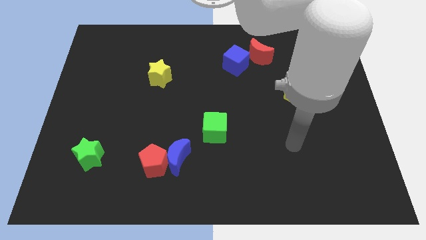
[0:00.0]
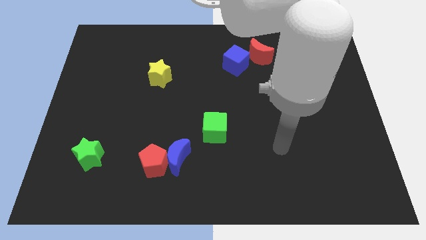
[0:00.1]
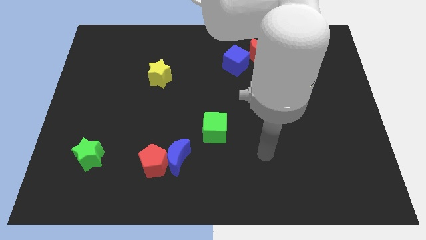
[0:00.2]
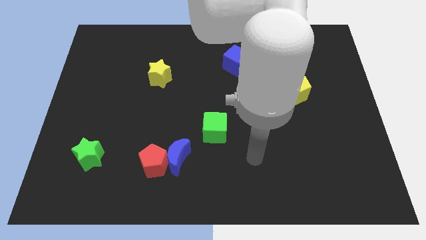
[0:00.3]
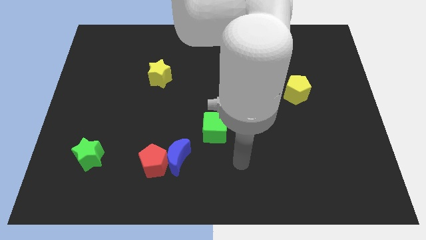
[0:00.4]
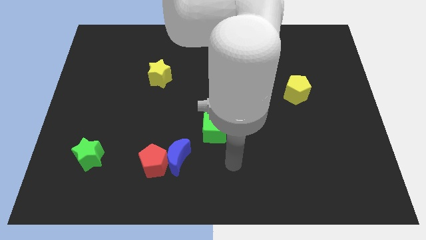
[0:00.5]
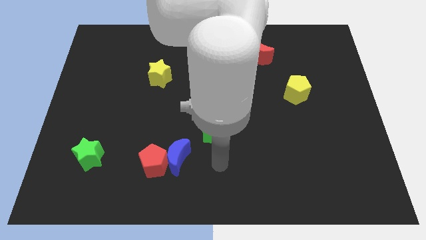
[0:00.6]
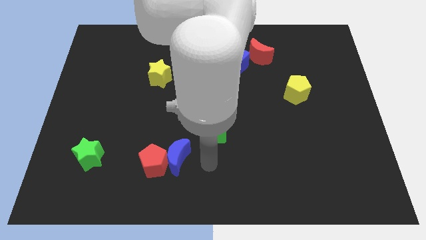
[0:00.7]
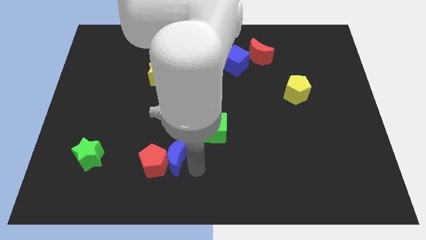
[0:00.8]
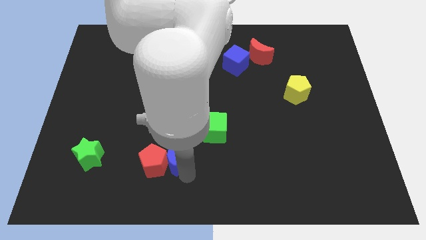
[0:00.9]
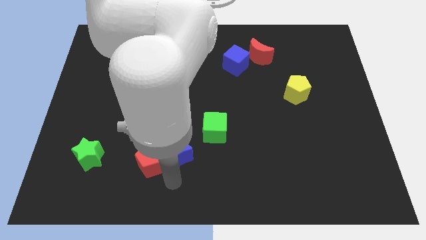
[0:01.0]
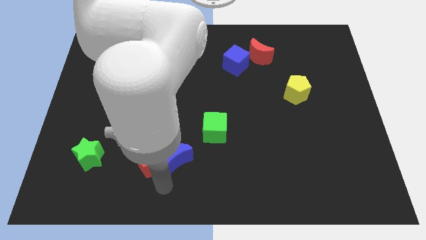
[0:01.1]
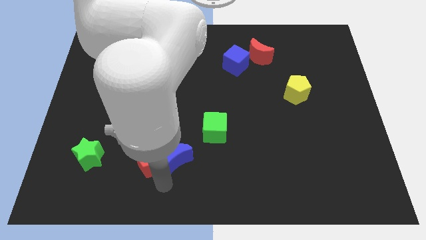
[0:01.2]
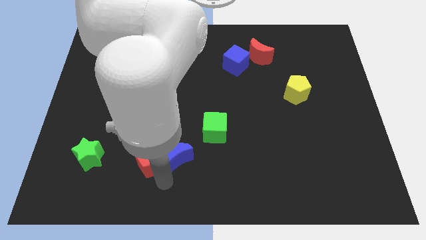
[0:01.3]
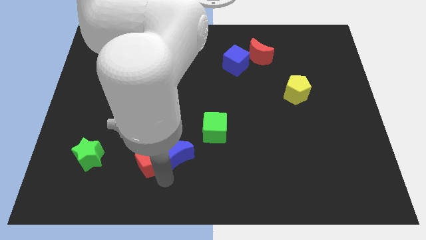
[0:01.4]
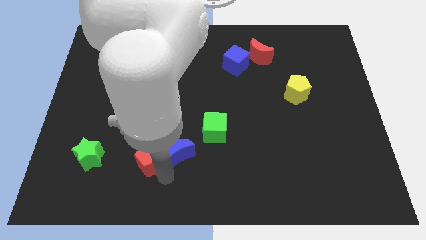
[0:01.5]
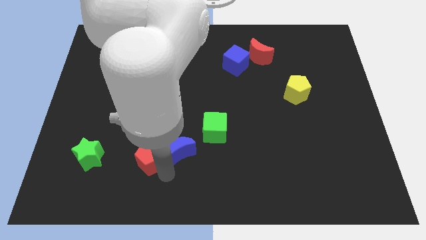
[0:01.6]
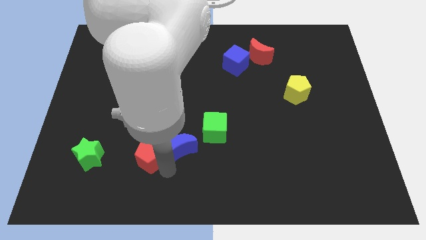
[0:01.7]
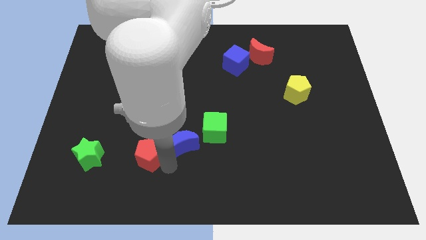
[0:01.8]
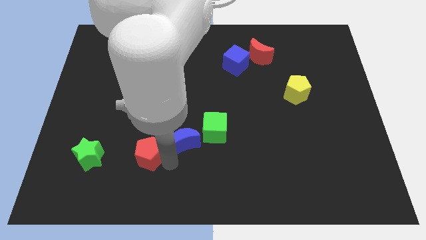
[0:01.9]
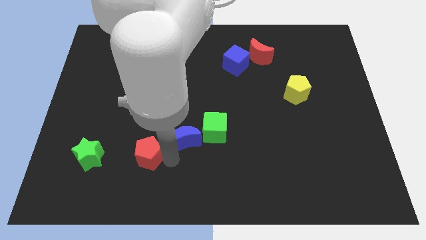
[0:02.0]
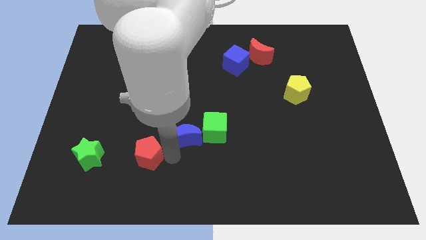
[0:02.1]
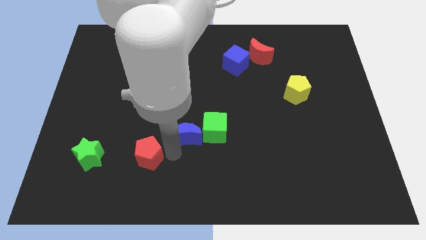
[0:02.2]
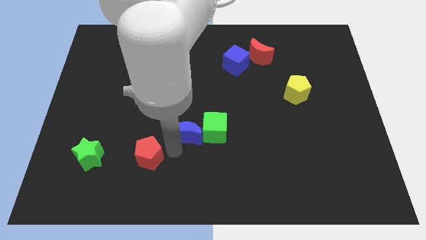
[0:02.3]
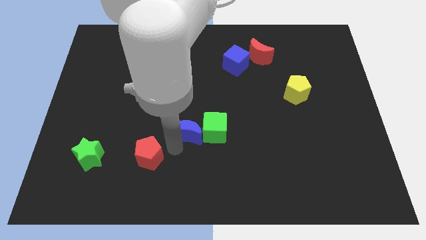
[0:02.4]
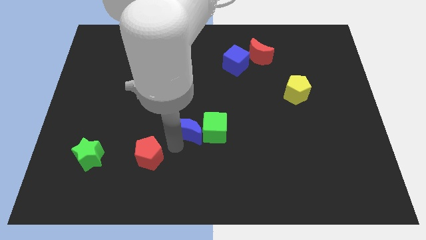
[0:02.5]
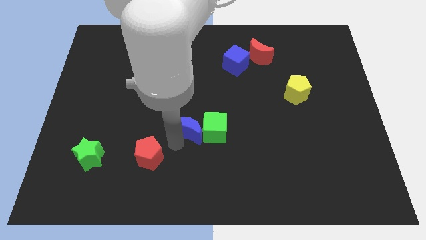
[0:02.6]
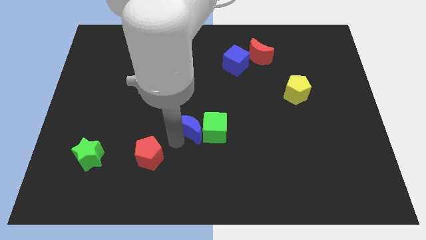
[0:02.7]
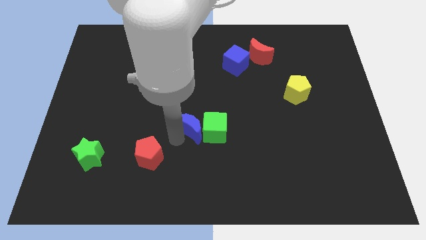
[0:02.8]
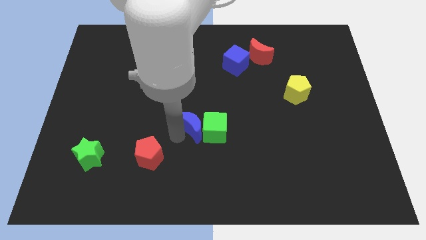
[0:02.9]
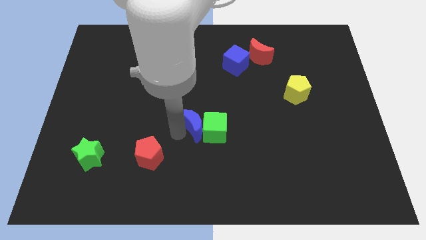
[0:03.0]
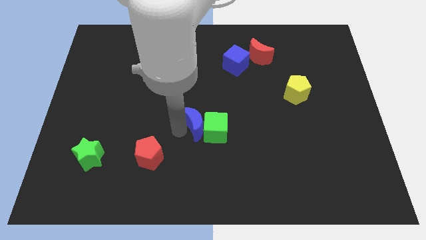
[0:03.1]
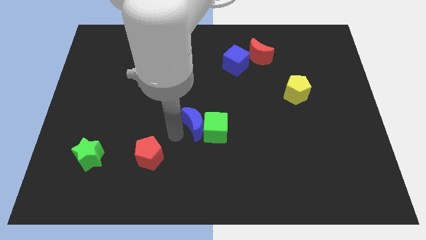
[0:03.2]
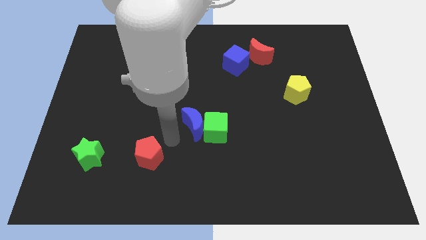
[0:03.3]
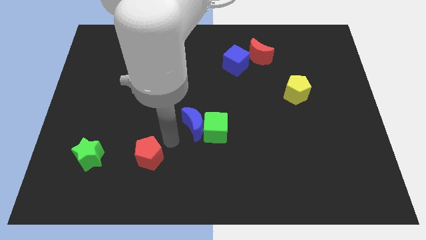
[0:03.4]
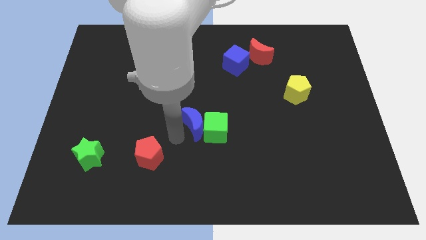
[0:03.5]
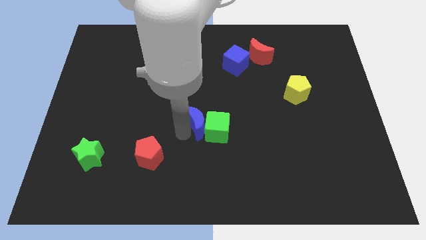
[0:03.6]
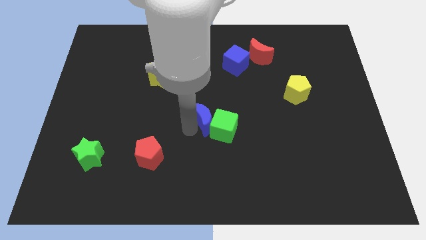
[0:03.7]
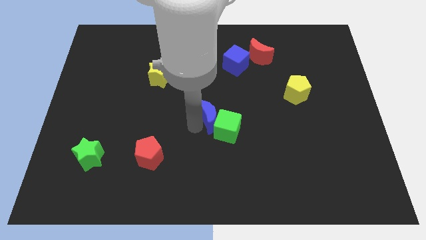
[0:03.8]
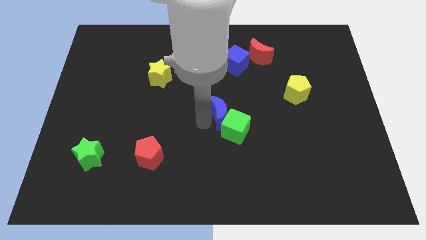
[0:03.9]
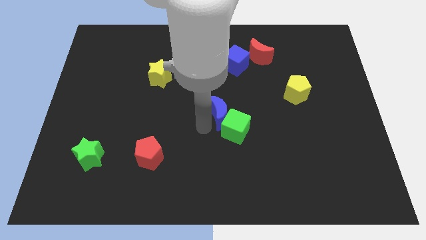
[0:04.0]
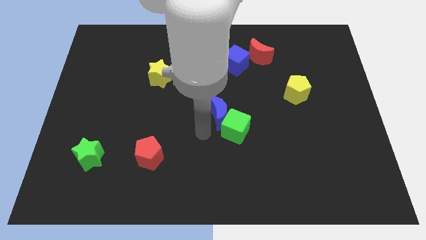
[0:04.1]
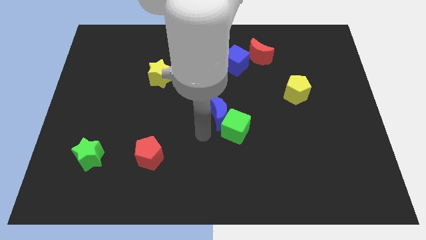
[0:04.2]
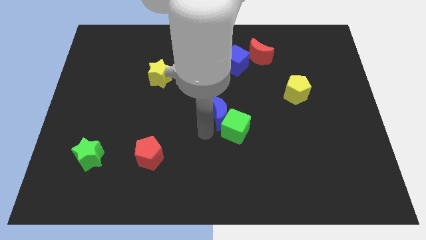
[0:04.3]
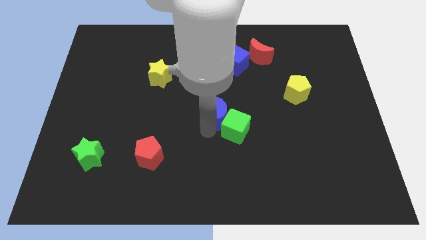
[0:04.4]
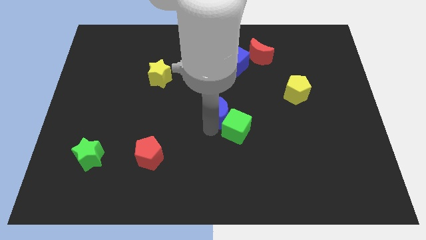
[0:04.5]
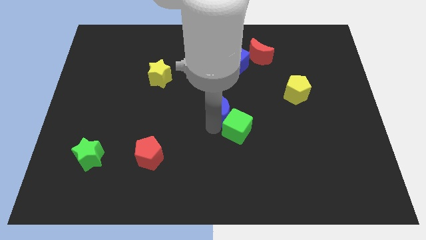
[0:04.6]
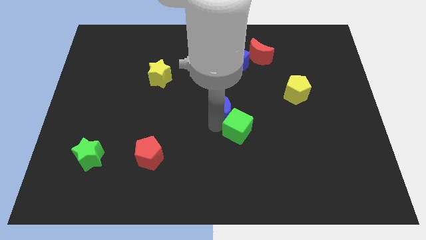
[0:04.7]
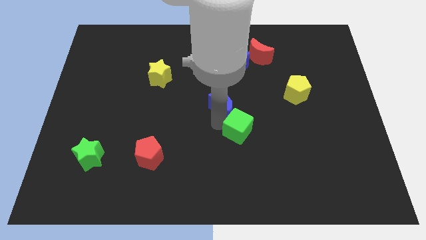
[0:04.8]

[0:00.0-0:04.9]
slide the blue moon below the blue cube

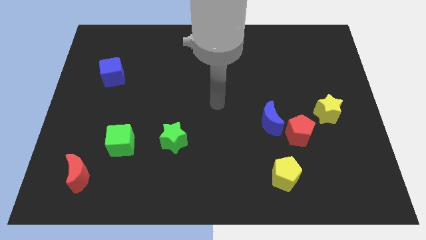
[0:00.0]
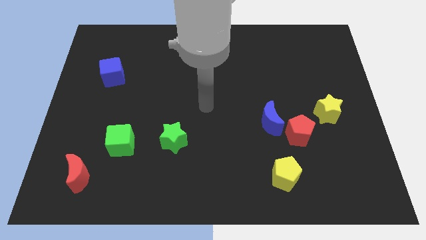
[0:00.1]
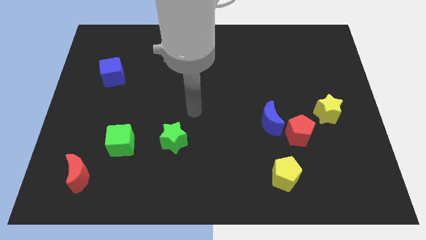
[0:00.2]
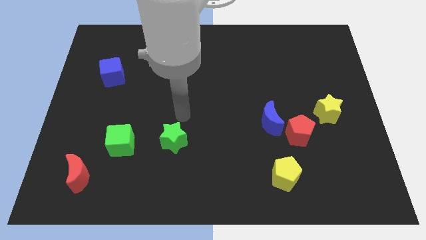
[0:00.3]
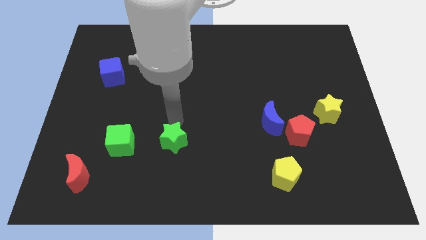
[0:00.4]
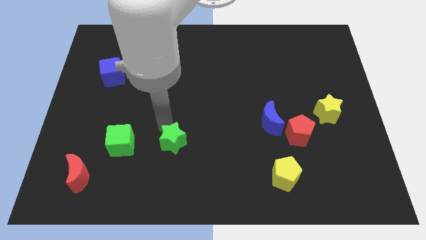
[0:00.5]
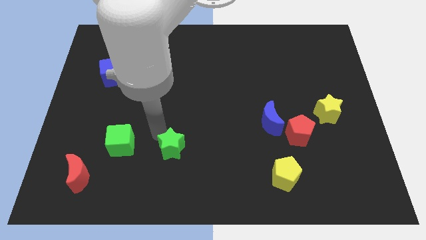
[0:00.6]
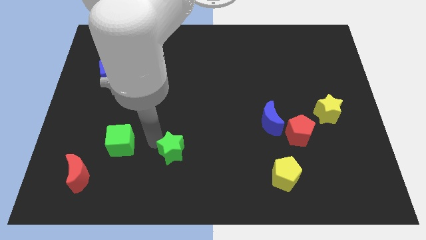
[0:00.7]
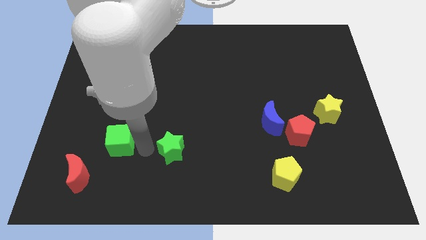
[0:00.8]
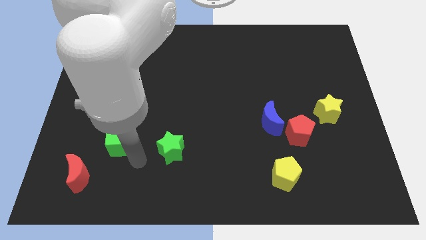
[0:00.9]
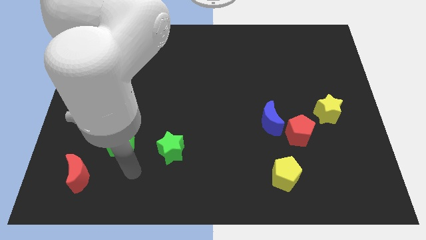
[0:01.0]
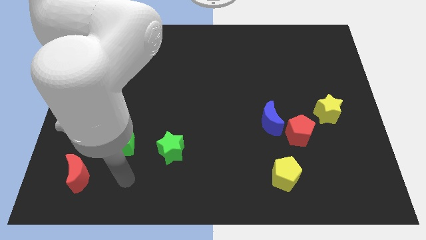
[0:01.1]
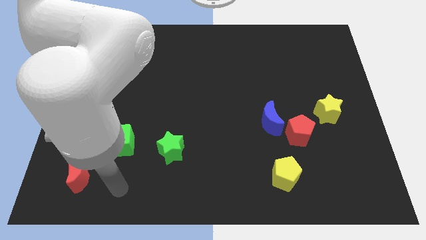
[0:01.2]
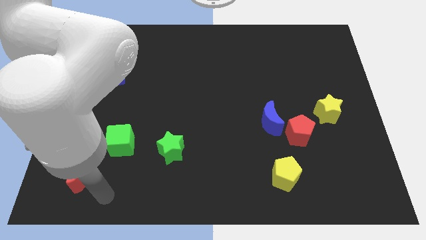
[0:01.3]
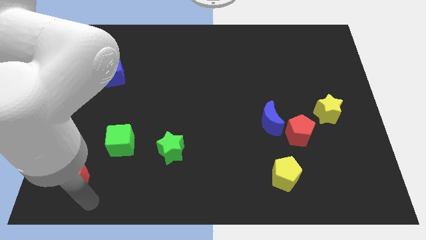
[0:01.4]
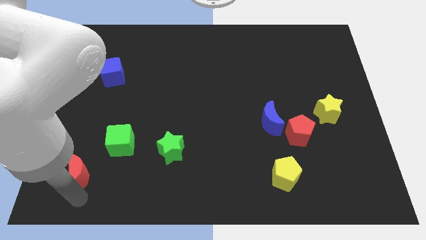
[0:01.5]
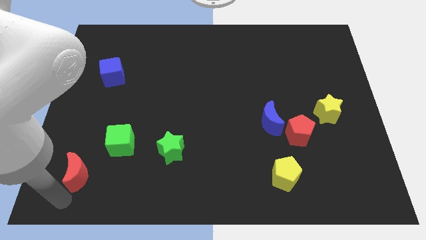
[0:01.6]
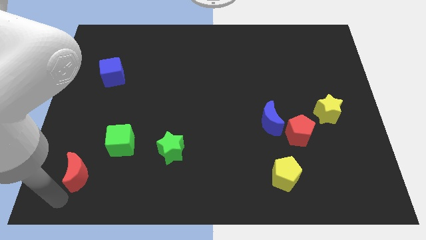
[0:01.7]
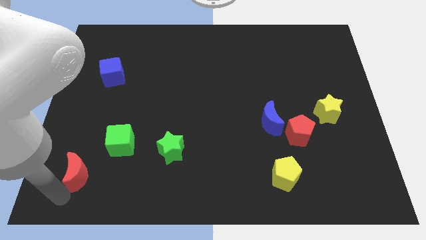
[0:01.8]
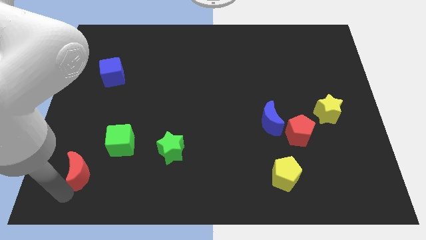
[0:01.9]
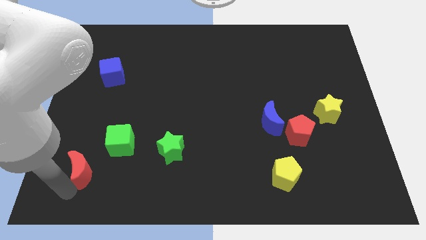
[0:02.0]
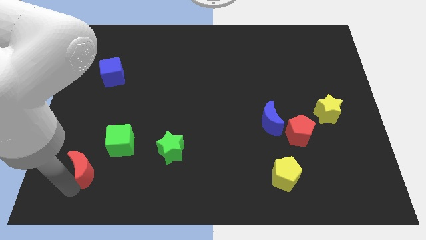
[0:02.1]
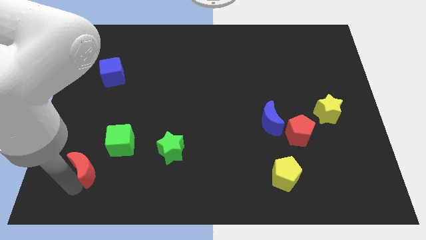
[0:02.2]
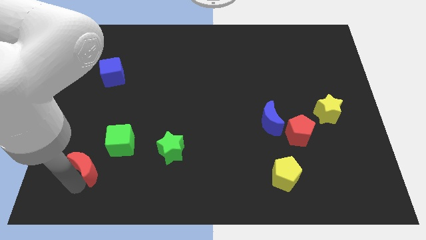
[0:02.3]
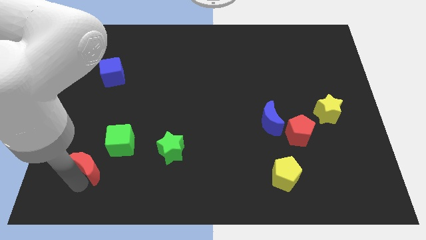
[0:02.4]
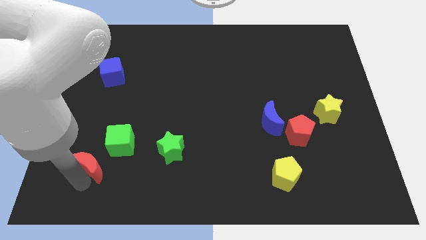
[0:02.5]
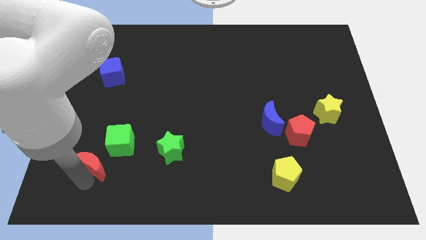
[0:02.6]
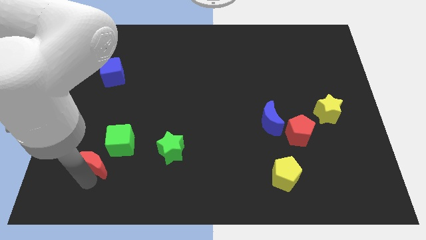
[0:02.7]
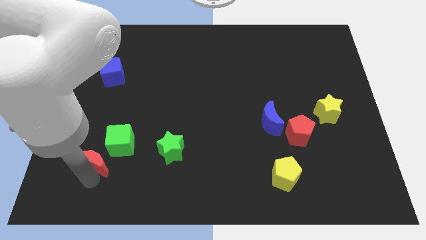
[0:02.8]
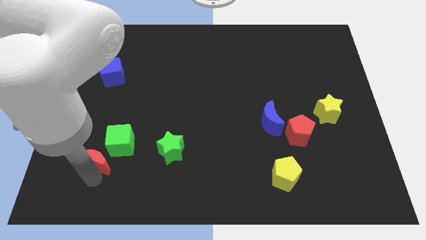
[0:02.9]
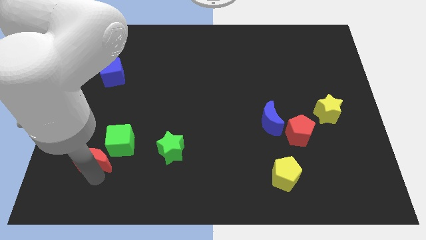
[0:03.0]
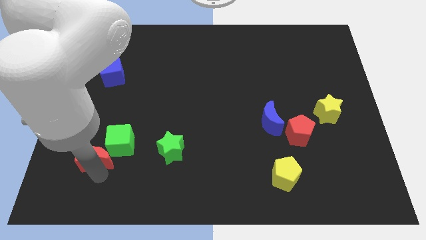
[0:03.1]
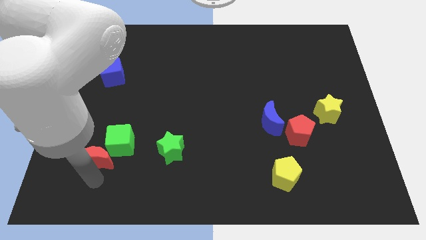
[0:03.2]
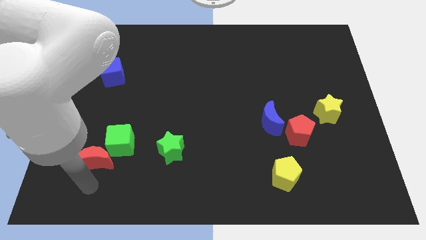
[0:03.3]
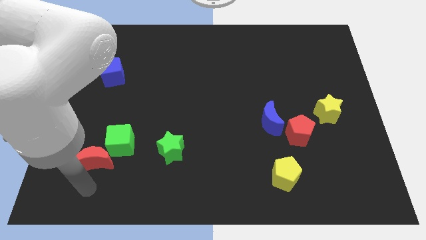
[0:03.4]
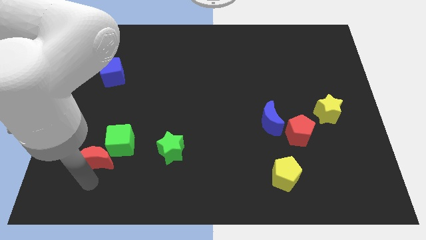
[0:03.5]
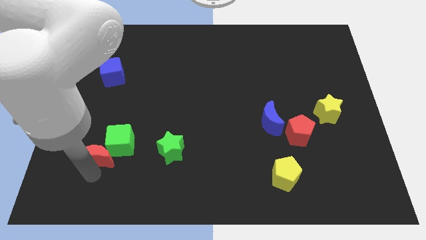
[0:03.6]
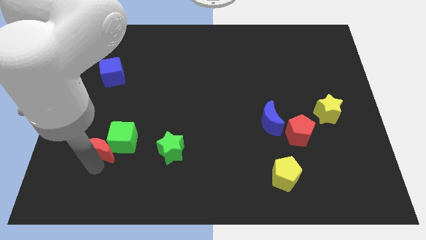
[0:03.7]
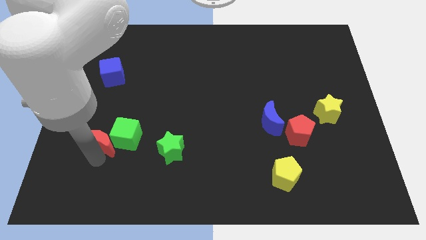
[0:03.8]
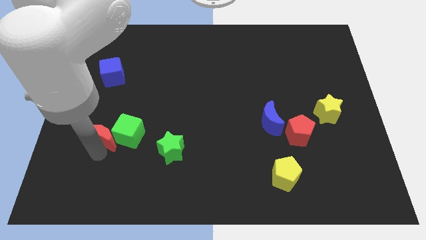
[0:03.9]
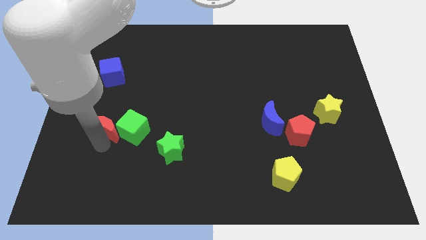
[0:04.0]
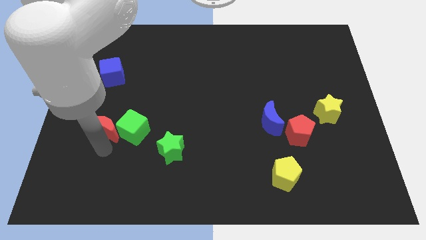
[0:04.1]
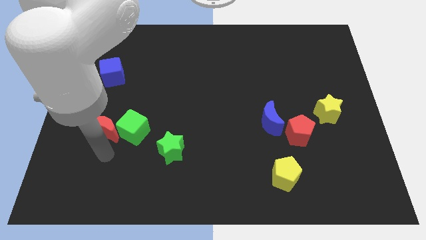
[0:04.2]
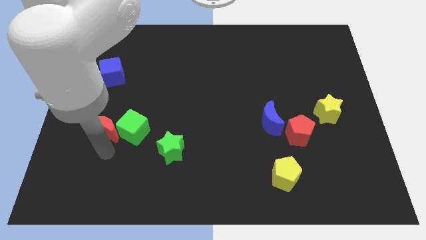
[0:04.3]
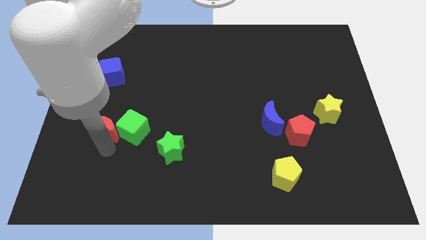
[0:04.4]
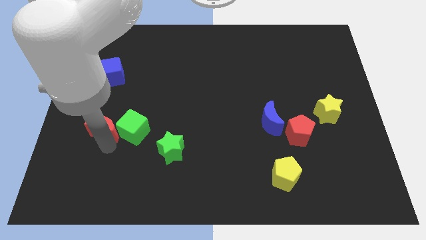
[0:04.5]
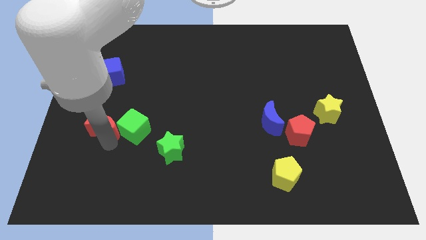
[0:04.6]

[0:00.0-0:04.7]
move the red moon to the bottom side of the blue cube
